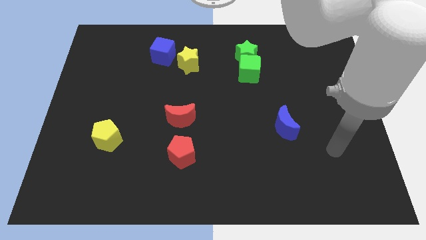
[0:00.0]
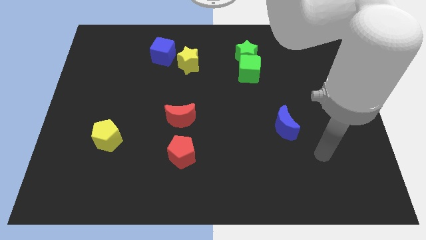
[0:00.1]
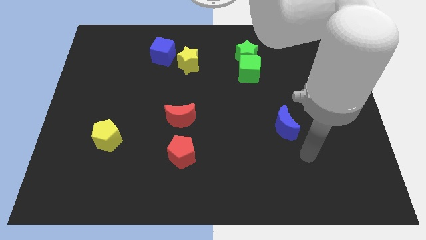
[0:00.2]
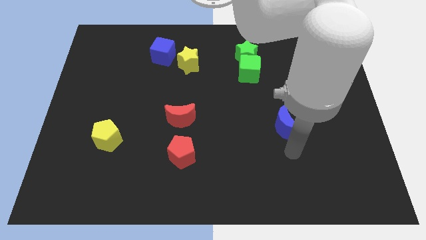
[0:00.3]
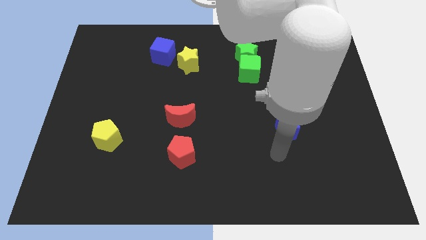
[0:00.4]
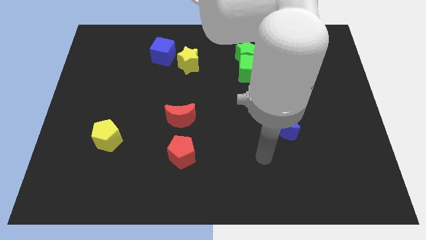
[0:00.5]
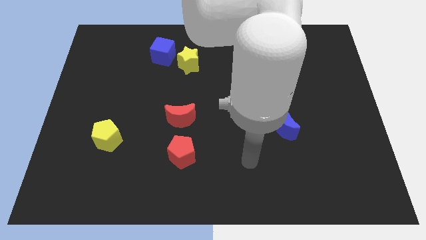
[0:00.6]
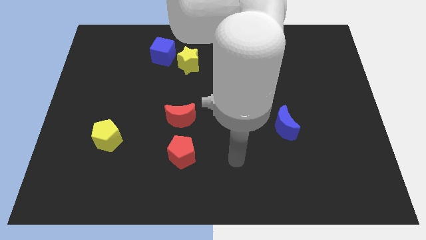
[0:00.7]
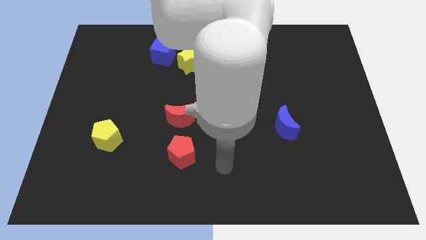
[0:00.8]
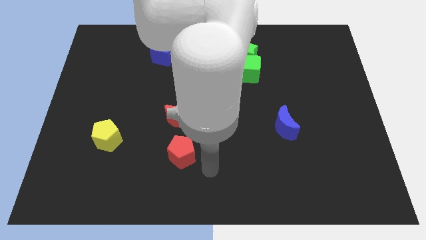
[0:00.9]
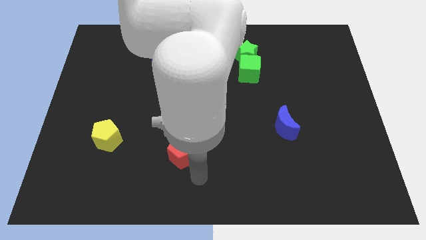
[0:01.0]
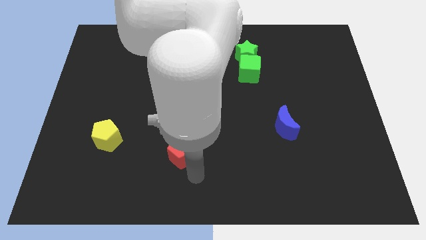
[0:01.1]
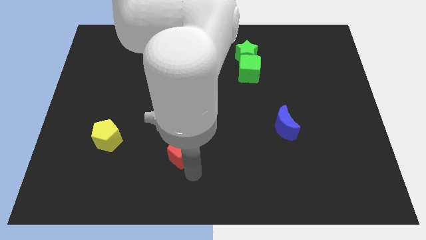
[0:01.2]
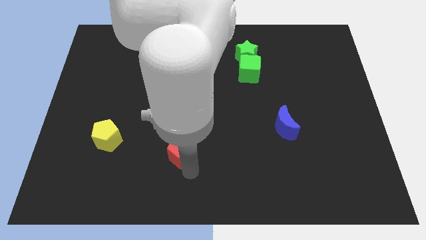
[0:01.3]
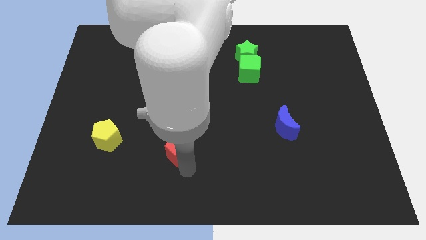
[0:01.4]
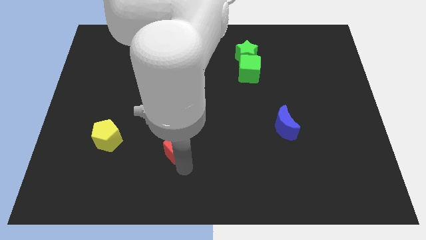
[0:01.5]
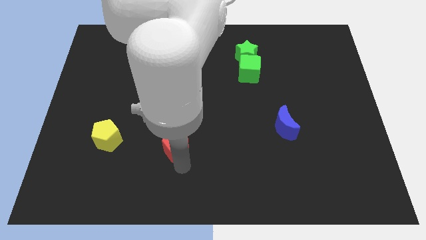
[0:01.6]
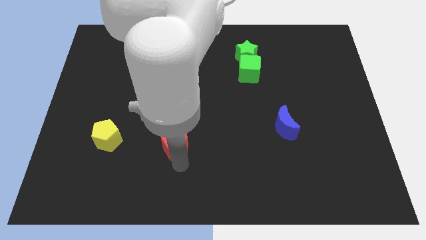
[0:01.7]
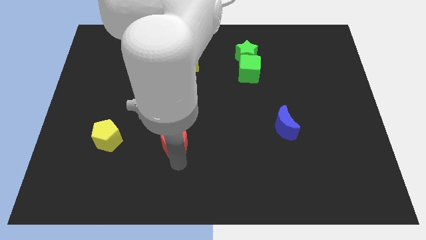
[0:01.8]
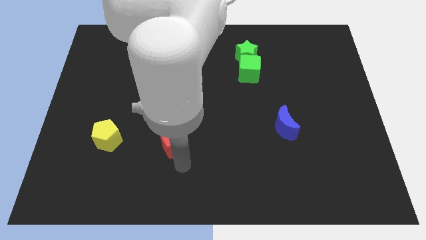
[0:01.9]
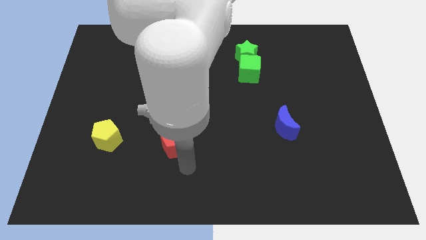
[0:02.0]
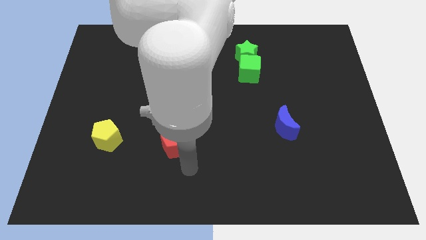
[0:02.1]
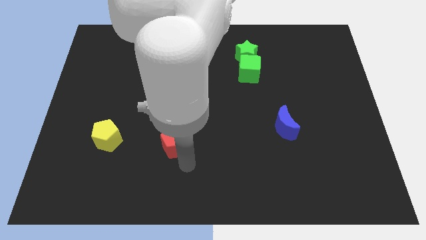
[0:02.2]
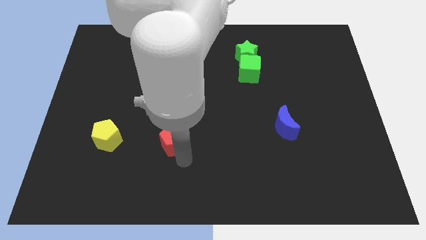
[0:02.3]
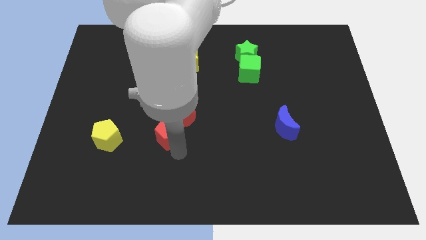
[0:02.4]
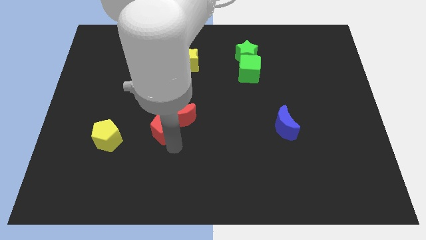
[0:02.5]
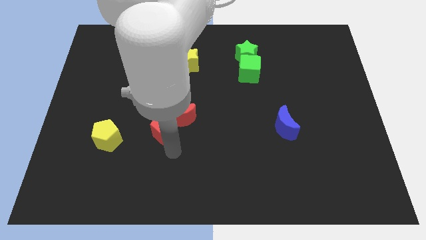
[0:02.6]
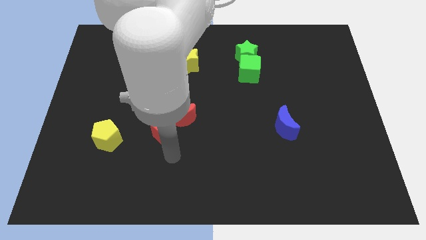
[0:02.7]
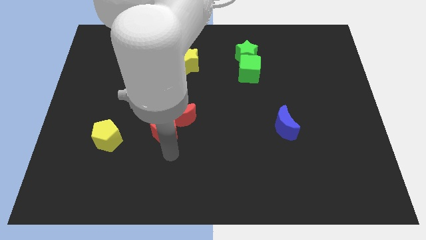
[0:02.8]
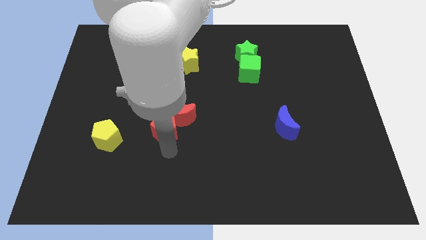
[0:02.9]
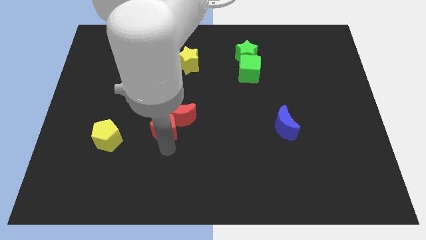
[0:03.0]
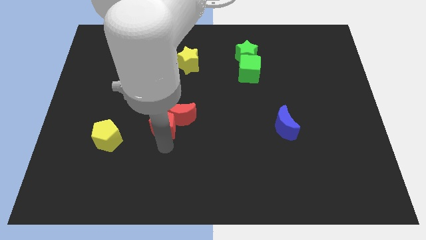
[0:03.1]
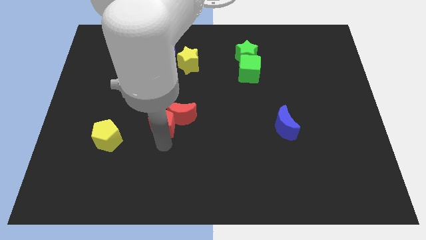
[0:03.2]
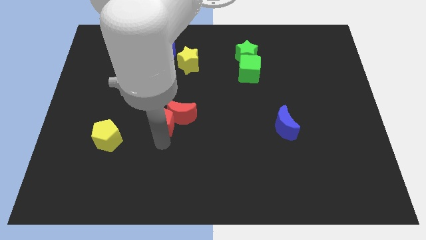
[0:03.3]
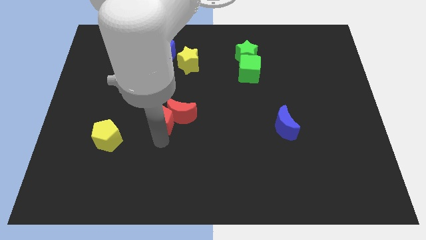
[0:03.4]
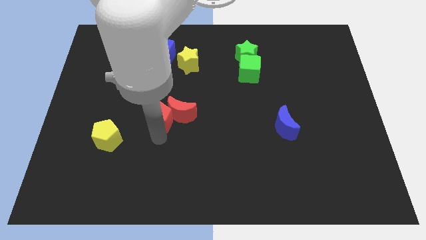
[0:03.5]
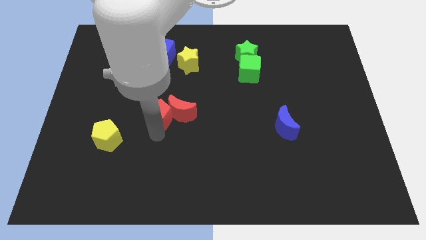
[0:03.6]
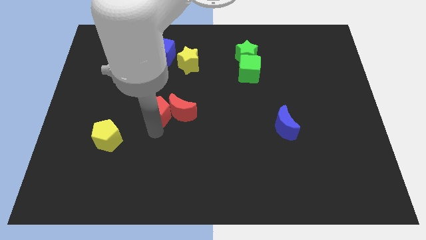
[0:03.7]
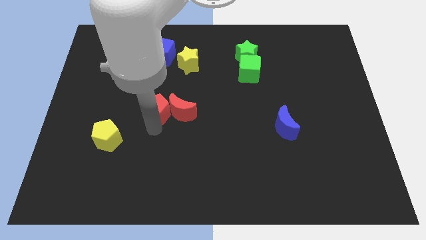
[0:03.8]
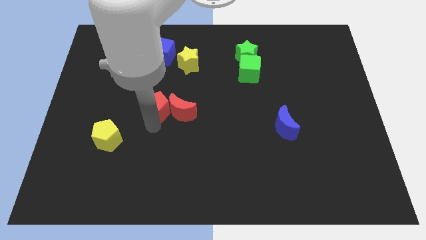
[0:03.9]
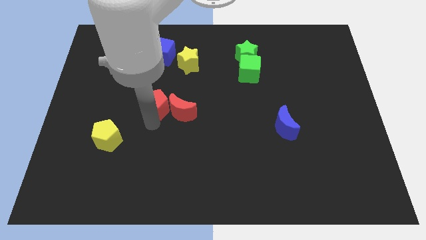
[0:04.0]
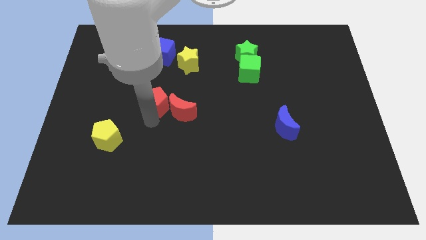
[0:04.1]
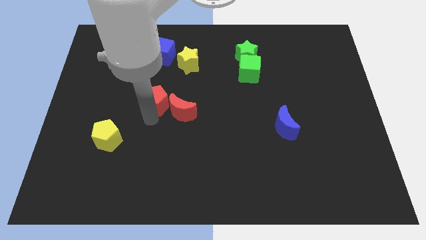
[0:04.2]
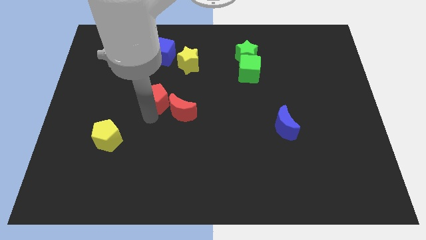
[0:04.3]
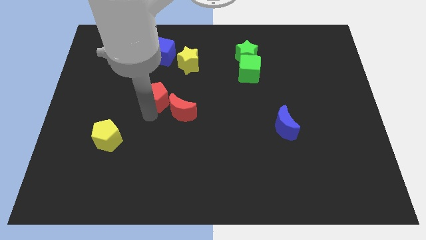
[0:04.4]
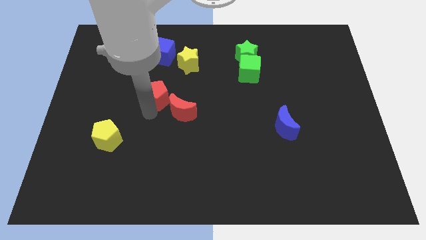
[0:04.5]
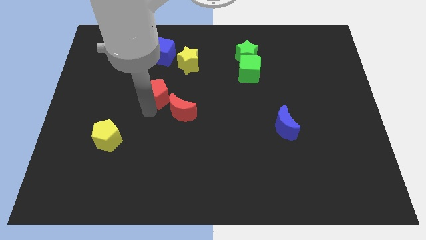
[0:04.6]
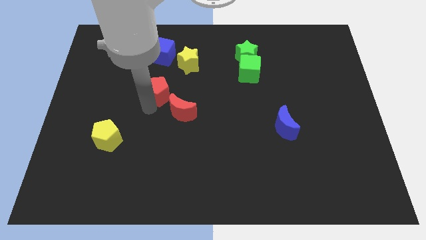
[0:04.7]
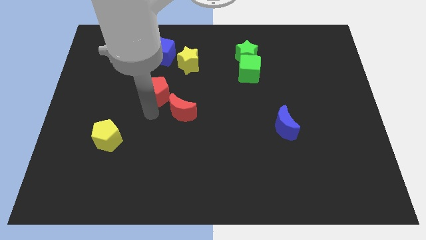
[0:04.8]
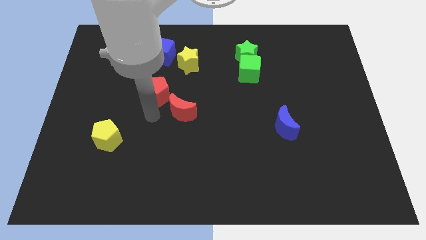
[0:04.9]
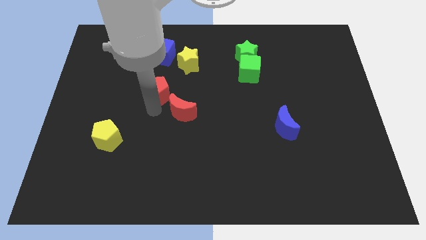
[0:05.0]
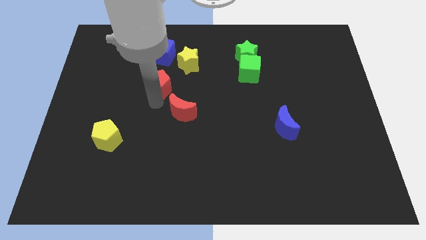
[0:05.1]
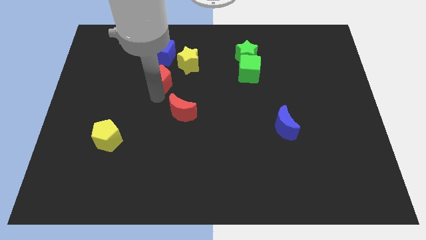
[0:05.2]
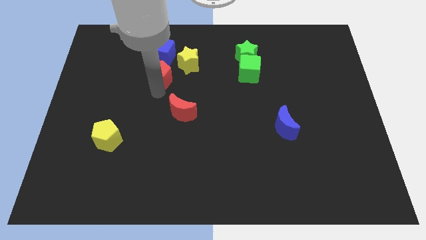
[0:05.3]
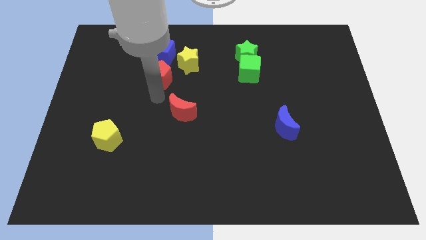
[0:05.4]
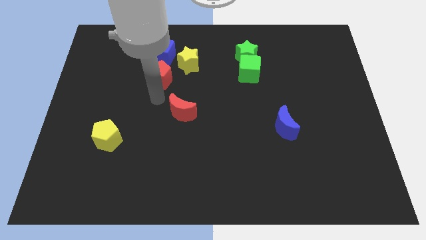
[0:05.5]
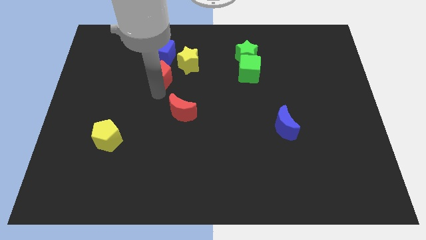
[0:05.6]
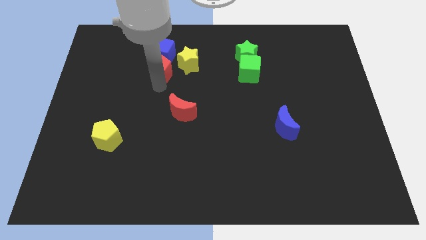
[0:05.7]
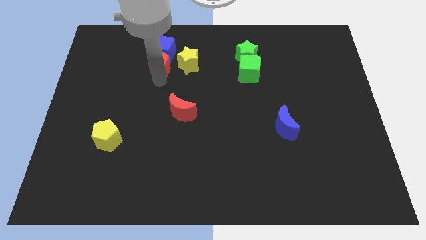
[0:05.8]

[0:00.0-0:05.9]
slide the red pentagon next to the blue cube

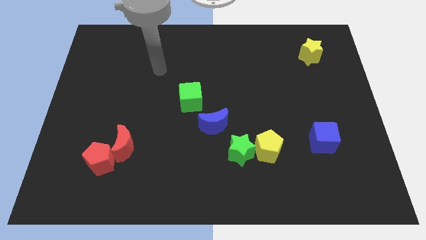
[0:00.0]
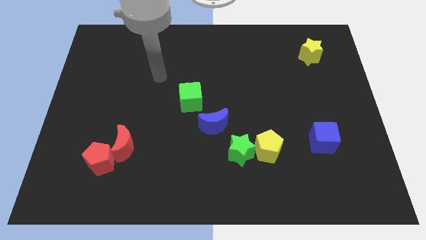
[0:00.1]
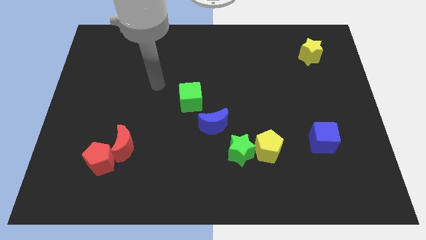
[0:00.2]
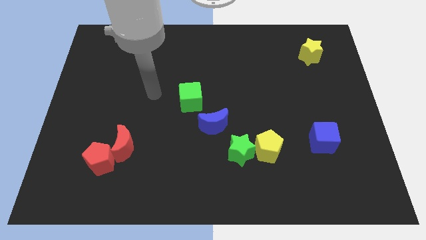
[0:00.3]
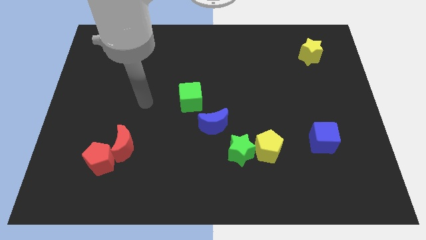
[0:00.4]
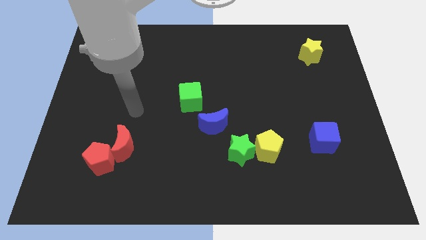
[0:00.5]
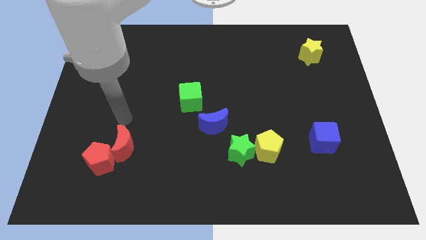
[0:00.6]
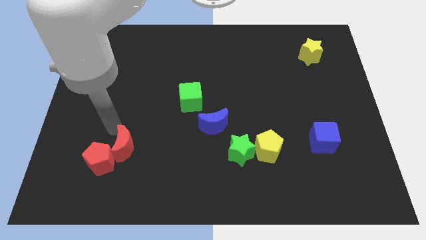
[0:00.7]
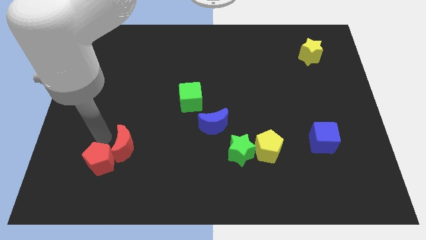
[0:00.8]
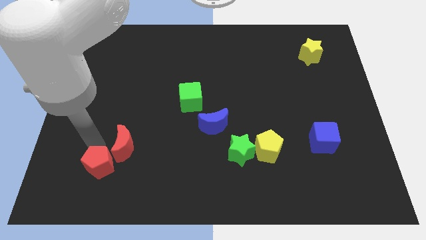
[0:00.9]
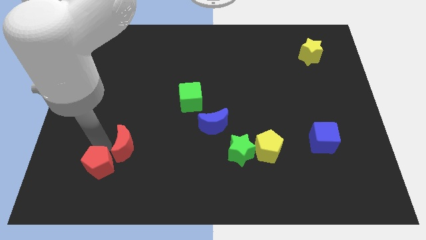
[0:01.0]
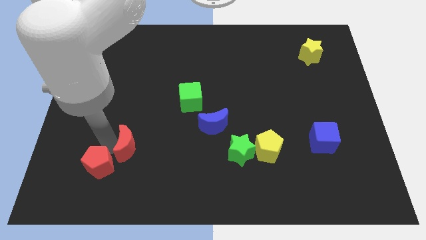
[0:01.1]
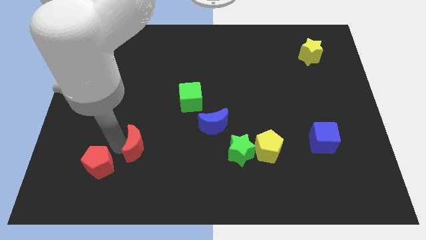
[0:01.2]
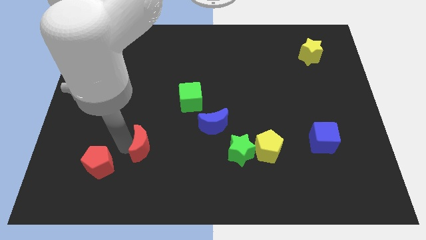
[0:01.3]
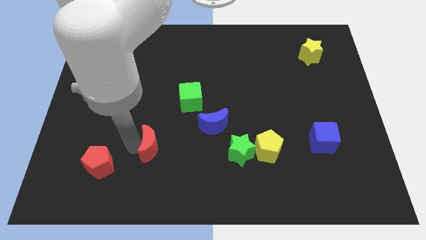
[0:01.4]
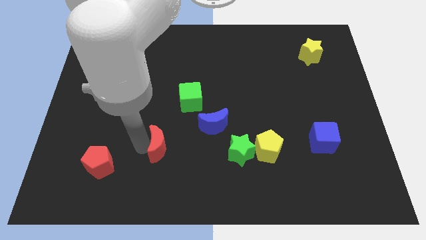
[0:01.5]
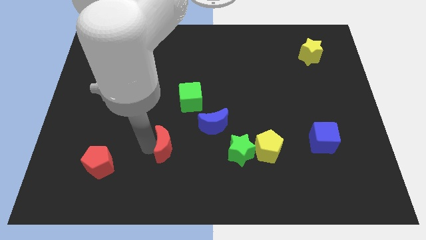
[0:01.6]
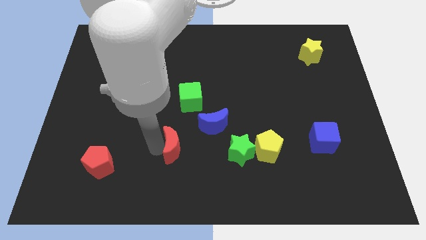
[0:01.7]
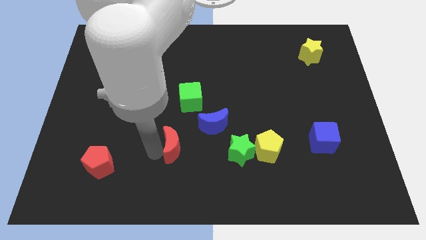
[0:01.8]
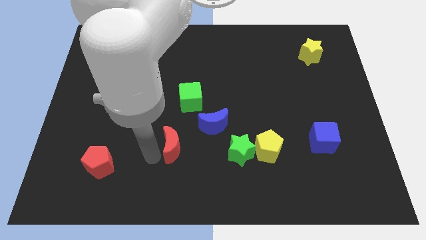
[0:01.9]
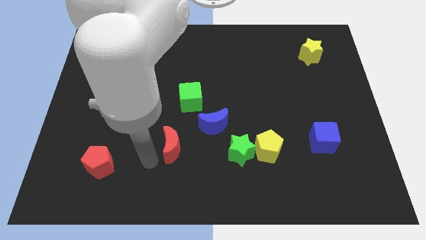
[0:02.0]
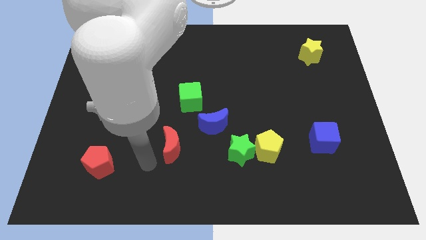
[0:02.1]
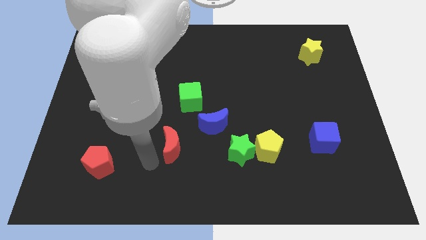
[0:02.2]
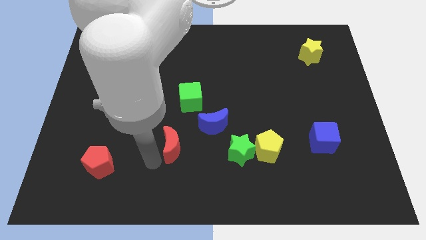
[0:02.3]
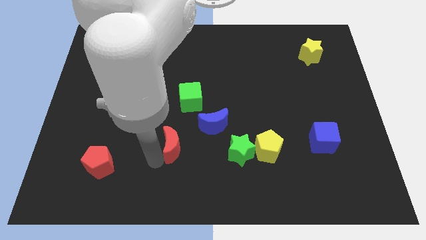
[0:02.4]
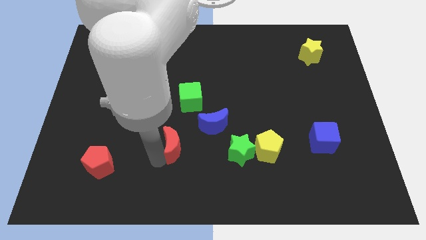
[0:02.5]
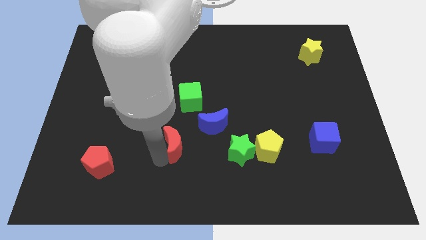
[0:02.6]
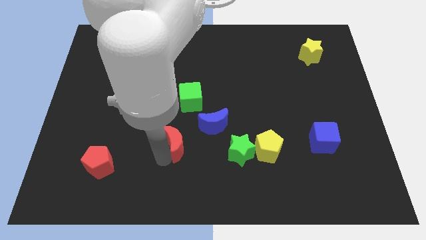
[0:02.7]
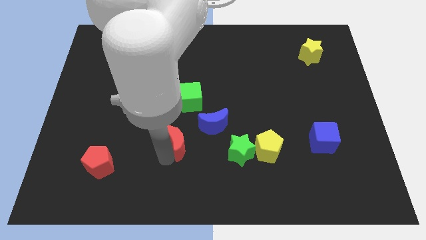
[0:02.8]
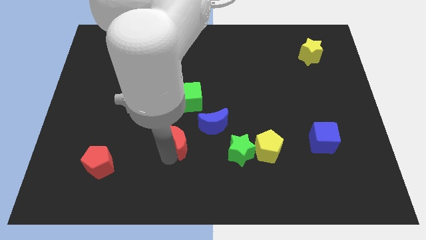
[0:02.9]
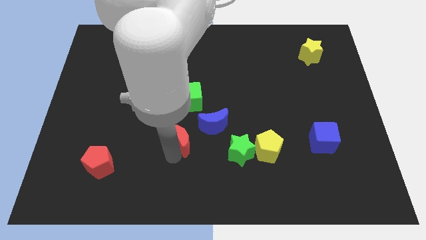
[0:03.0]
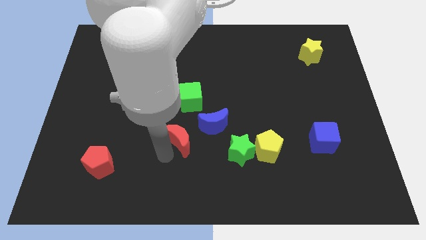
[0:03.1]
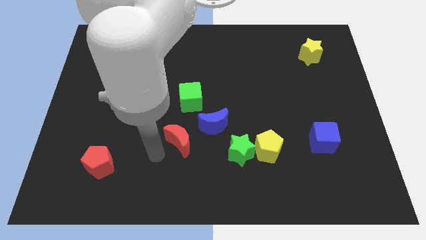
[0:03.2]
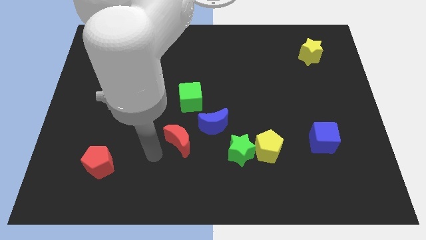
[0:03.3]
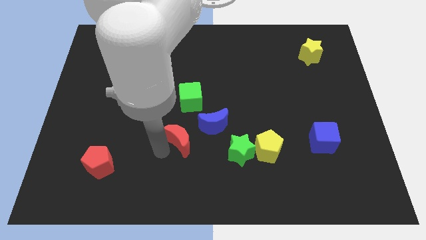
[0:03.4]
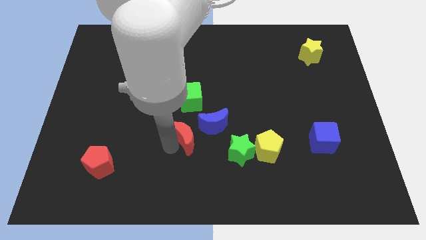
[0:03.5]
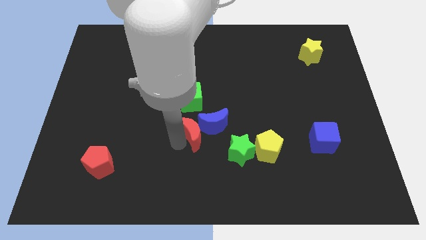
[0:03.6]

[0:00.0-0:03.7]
put the red moon next to the blue moon
